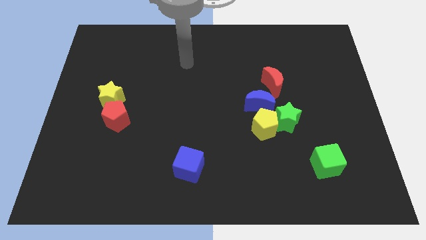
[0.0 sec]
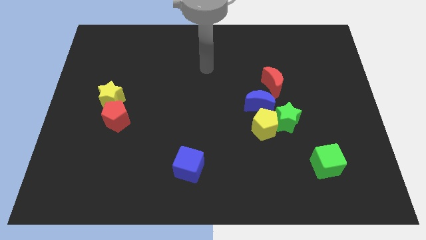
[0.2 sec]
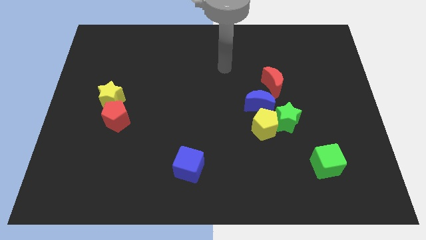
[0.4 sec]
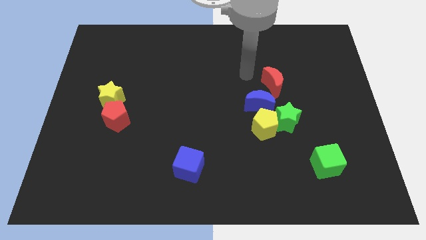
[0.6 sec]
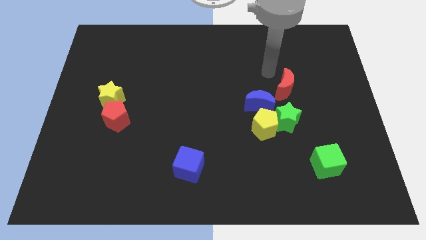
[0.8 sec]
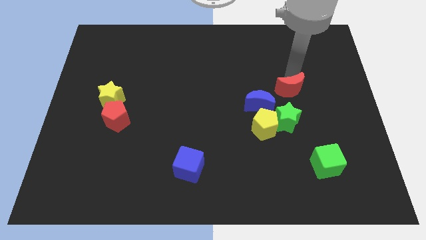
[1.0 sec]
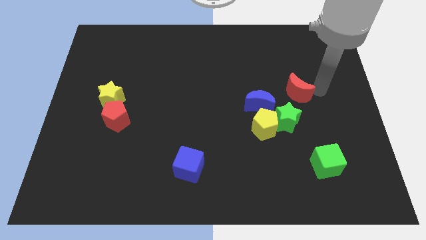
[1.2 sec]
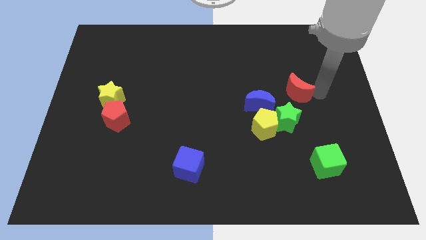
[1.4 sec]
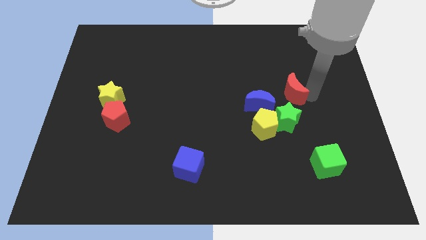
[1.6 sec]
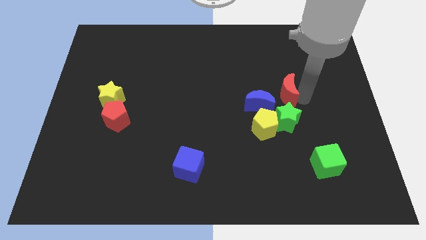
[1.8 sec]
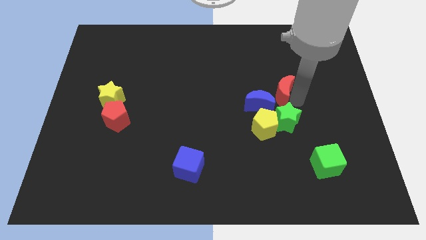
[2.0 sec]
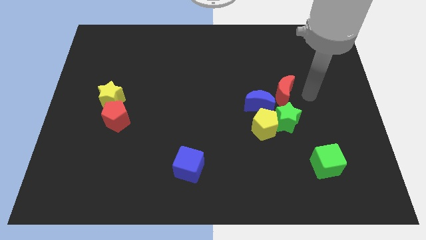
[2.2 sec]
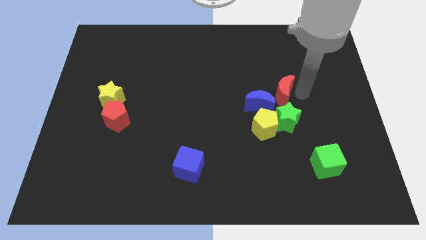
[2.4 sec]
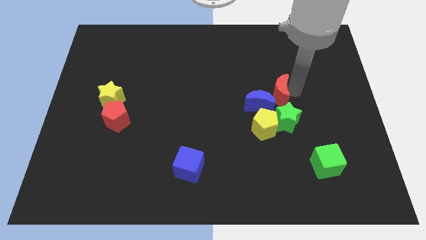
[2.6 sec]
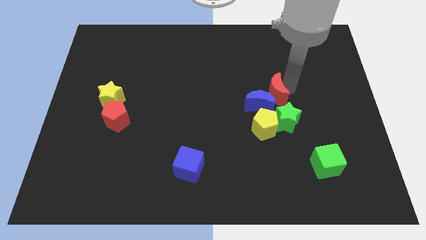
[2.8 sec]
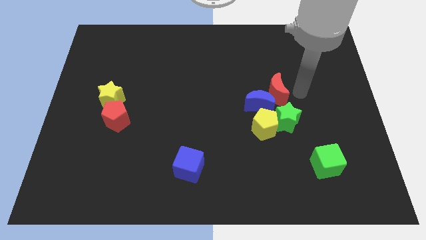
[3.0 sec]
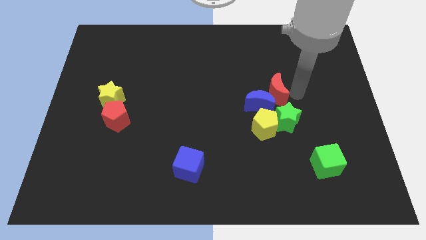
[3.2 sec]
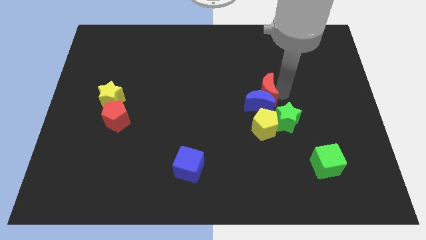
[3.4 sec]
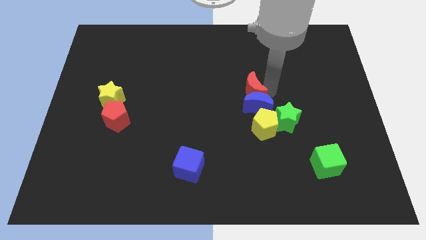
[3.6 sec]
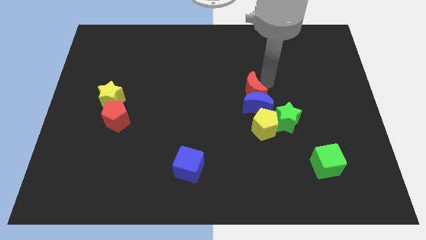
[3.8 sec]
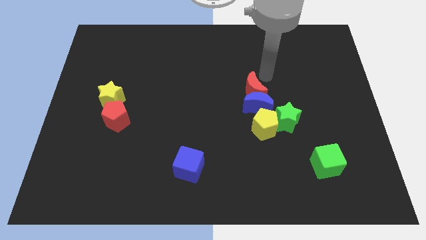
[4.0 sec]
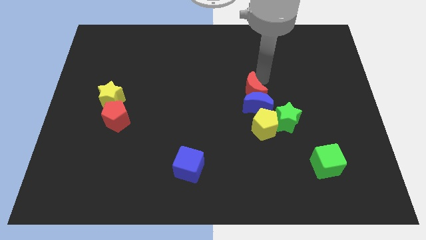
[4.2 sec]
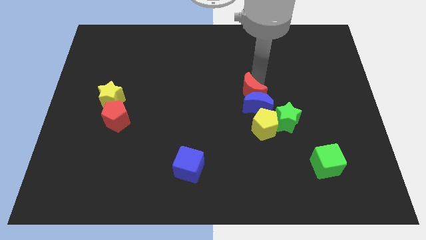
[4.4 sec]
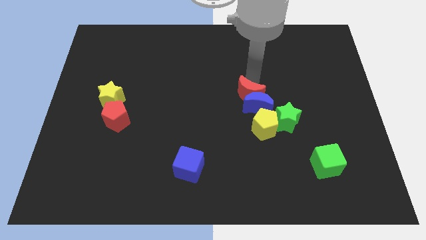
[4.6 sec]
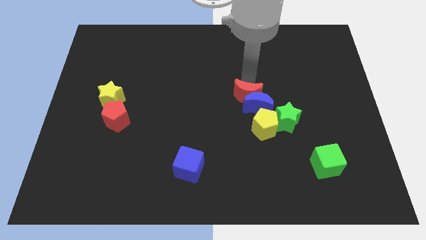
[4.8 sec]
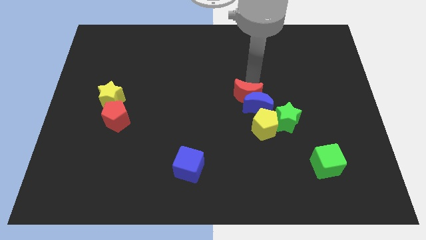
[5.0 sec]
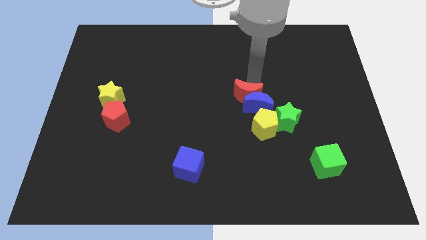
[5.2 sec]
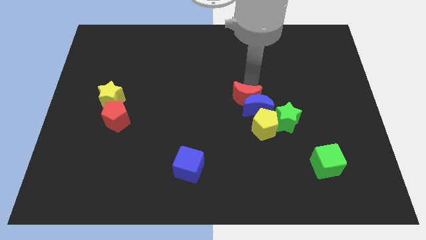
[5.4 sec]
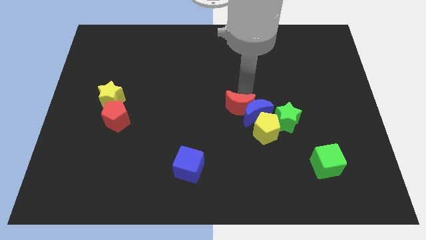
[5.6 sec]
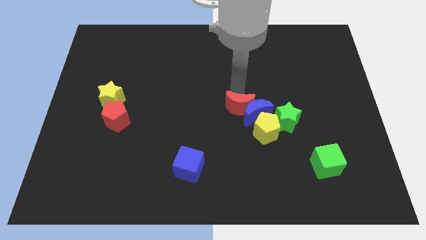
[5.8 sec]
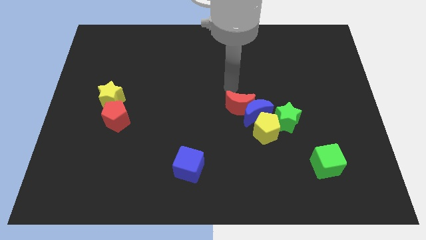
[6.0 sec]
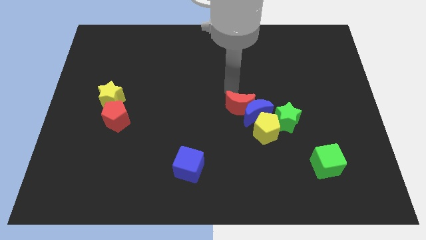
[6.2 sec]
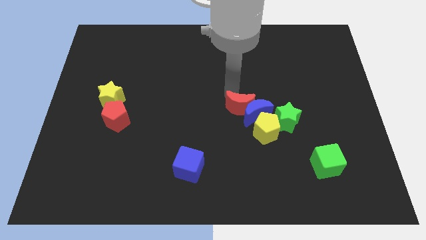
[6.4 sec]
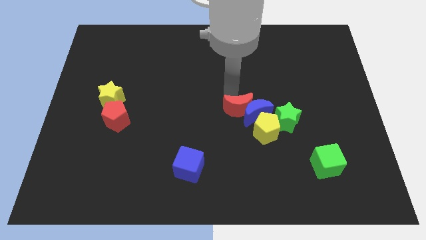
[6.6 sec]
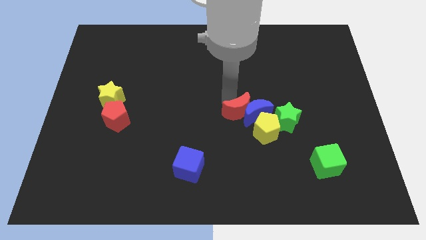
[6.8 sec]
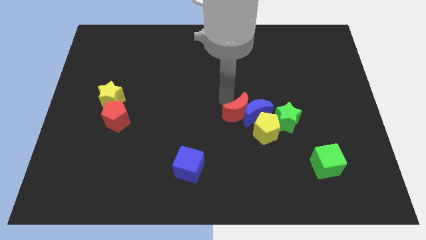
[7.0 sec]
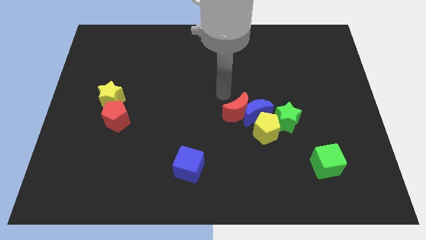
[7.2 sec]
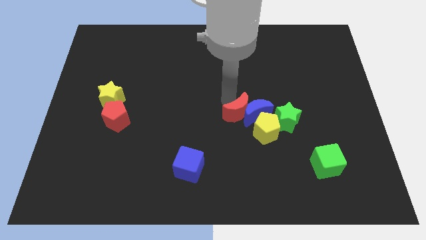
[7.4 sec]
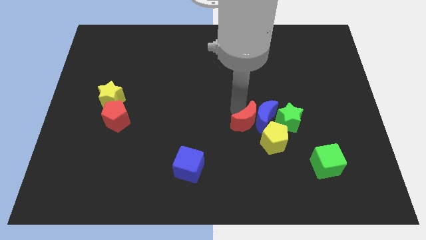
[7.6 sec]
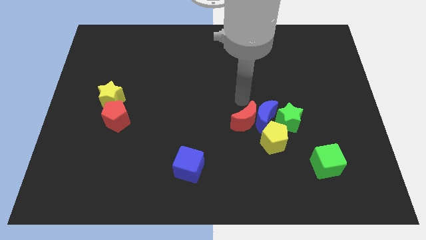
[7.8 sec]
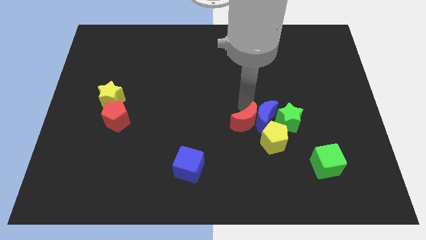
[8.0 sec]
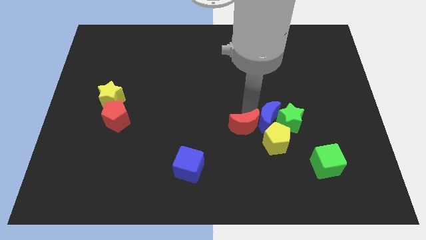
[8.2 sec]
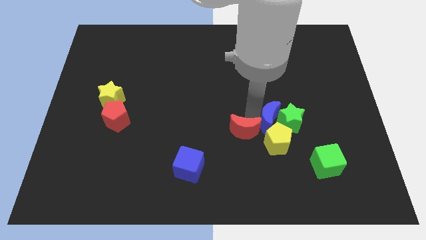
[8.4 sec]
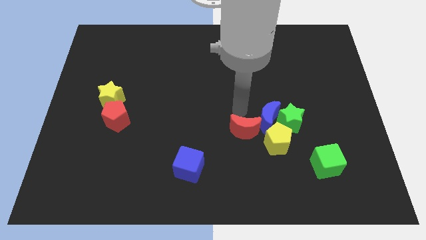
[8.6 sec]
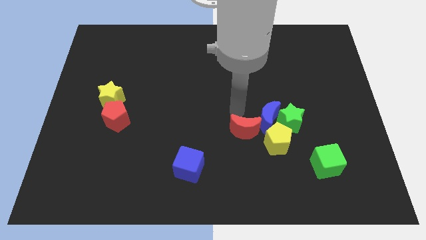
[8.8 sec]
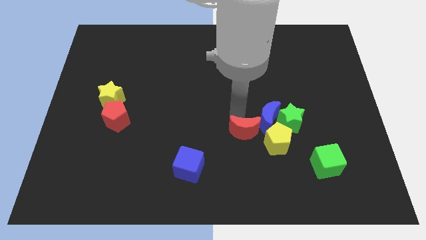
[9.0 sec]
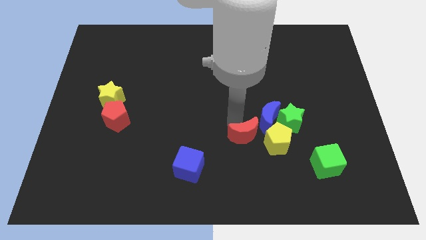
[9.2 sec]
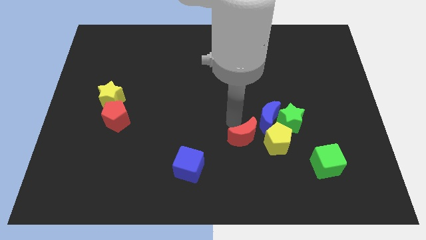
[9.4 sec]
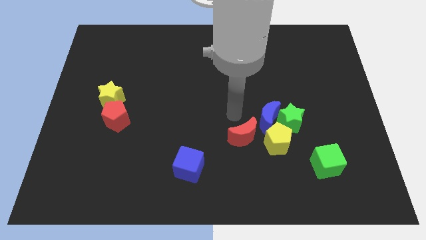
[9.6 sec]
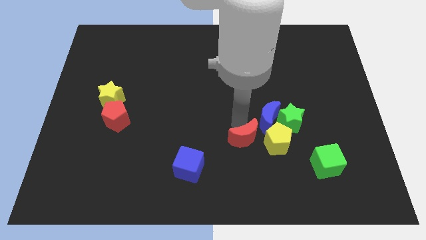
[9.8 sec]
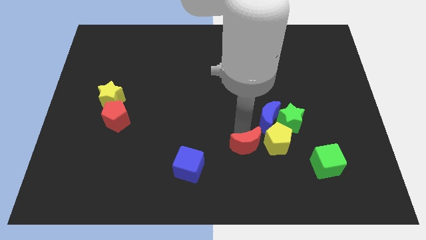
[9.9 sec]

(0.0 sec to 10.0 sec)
put the red moon to the bottom left side of the yellow pentagon

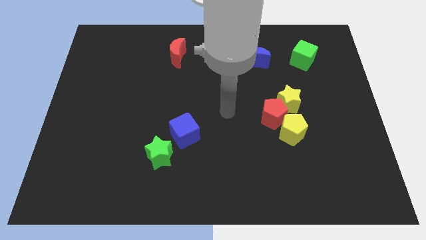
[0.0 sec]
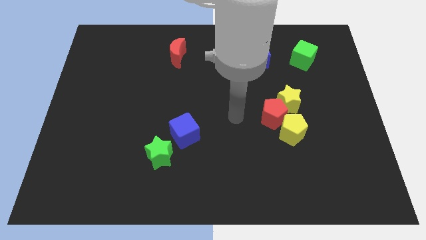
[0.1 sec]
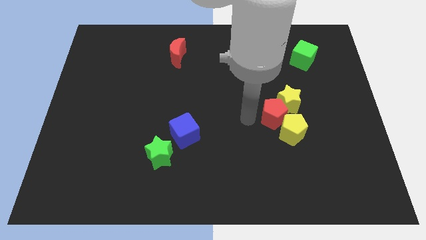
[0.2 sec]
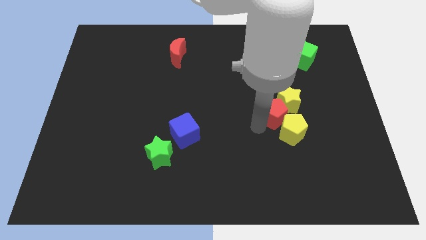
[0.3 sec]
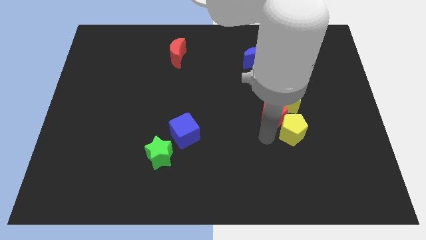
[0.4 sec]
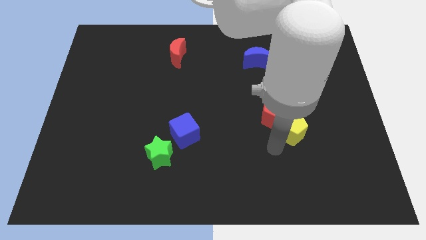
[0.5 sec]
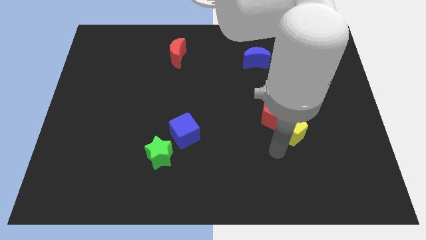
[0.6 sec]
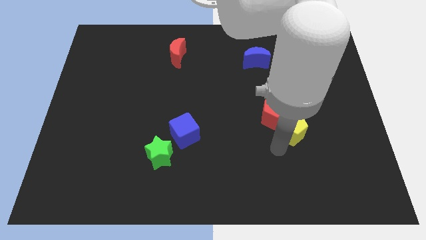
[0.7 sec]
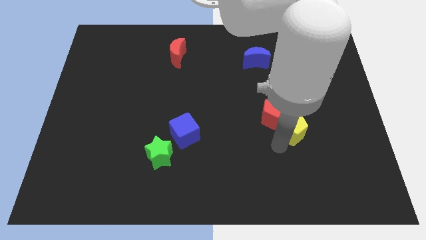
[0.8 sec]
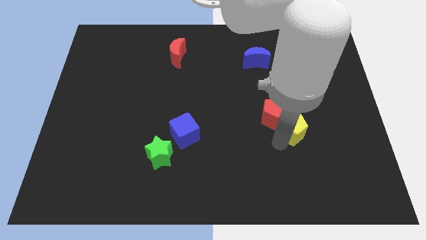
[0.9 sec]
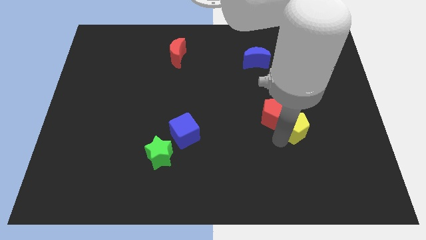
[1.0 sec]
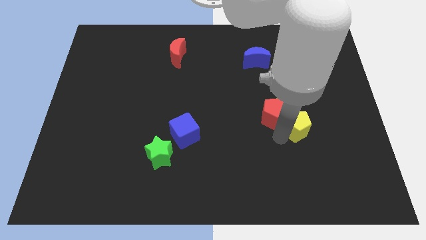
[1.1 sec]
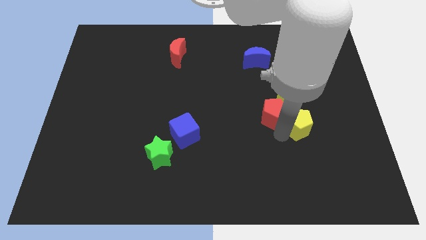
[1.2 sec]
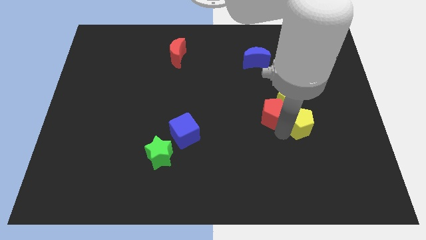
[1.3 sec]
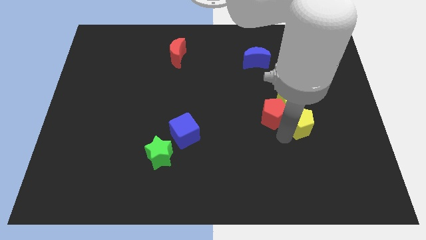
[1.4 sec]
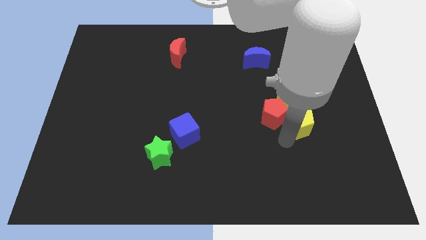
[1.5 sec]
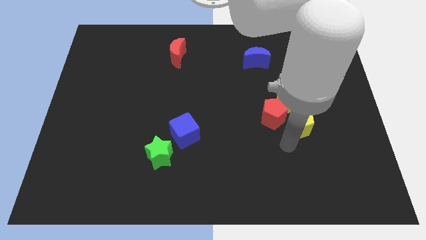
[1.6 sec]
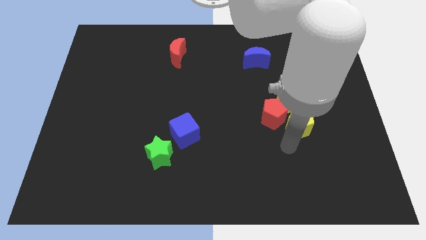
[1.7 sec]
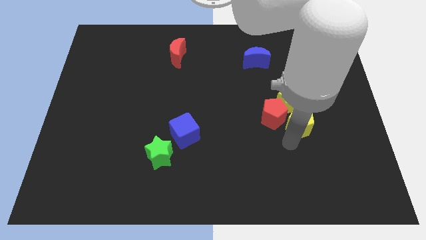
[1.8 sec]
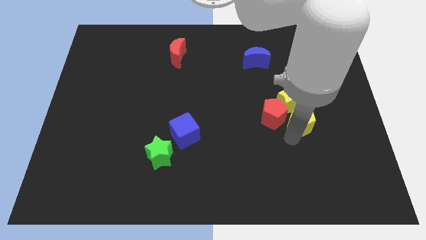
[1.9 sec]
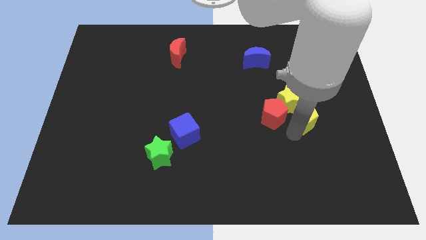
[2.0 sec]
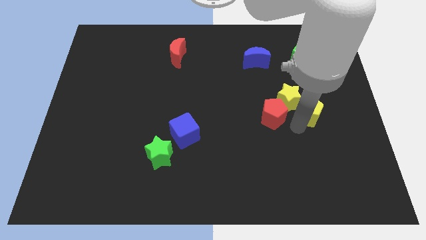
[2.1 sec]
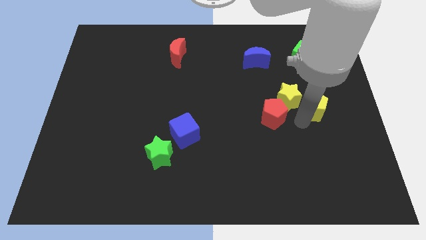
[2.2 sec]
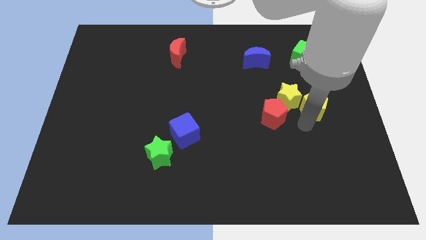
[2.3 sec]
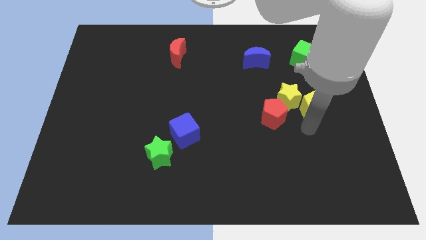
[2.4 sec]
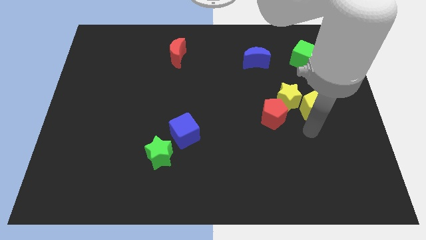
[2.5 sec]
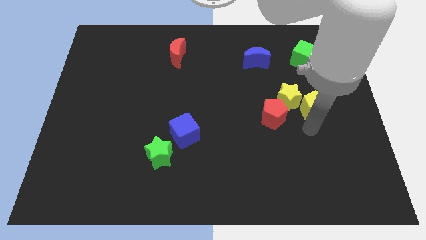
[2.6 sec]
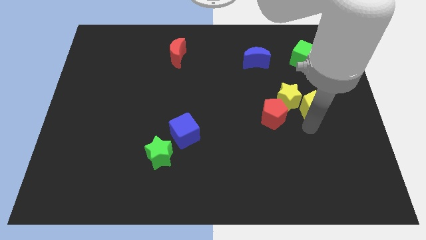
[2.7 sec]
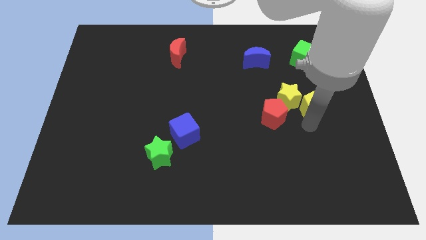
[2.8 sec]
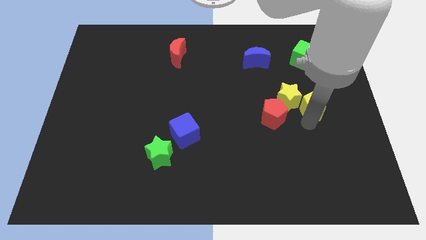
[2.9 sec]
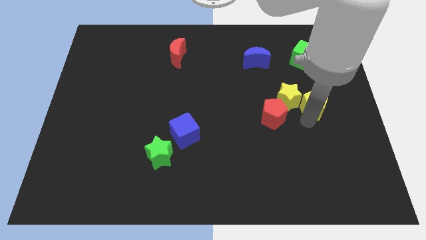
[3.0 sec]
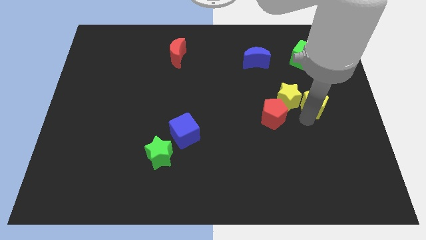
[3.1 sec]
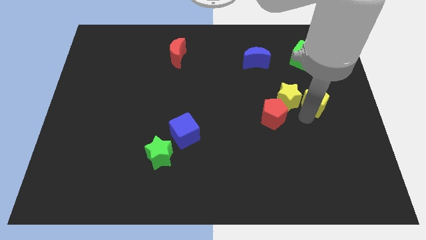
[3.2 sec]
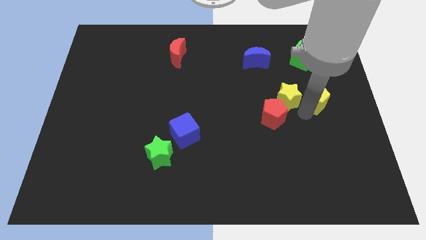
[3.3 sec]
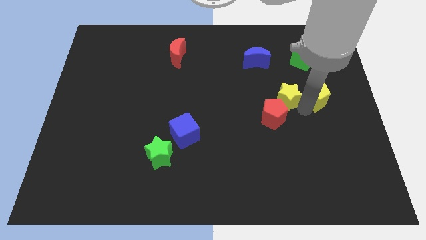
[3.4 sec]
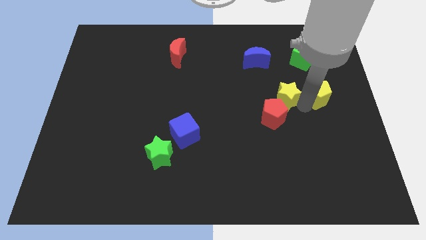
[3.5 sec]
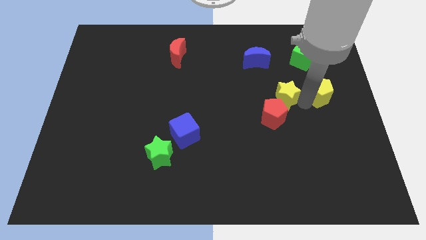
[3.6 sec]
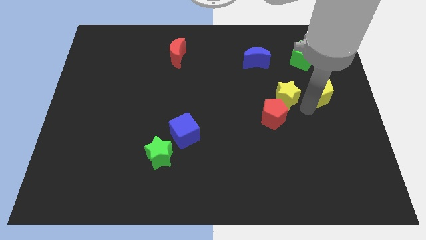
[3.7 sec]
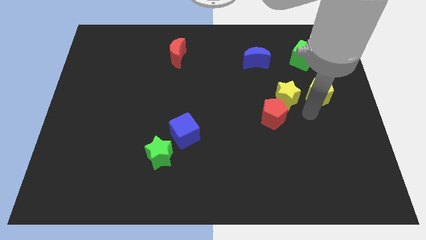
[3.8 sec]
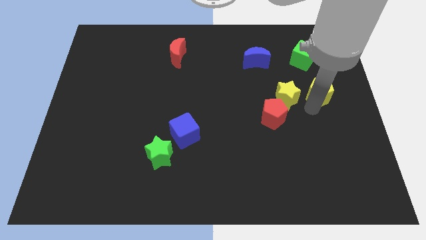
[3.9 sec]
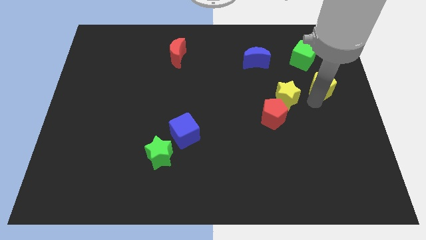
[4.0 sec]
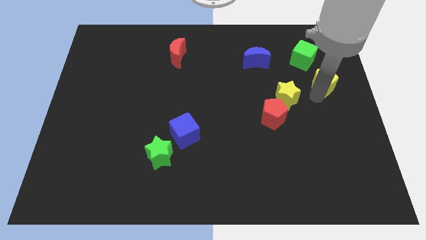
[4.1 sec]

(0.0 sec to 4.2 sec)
slide the yellow pentagon diagonally down and to the right of the green cube
